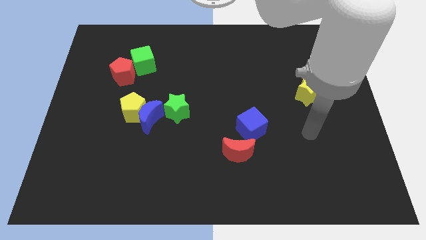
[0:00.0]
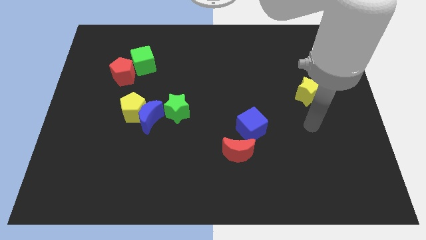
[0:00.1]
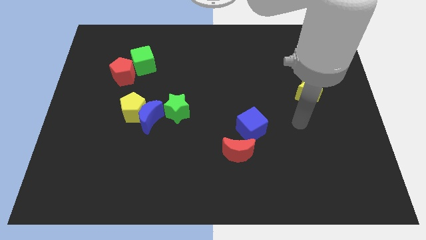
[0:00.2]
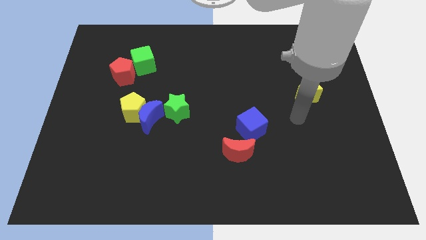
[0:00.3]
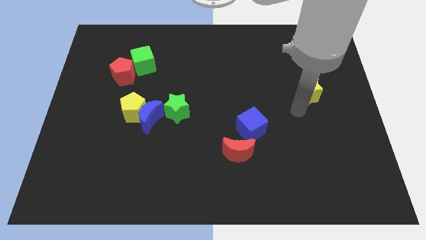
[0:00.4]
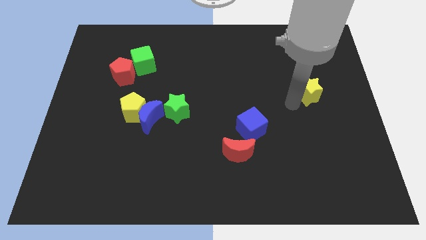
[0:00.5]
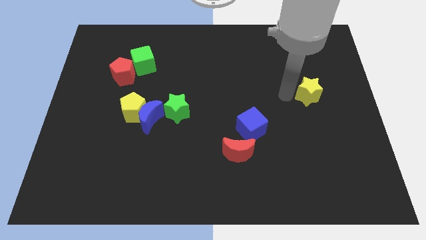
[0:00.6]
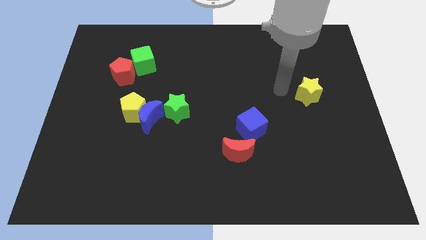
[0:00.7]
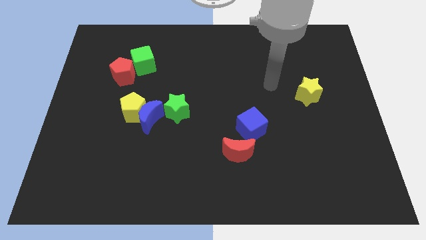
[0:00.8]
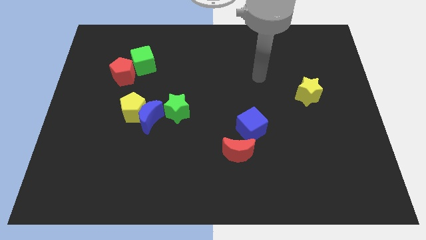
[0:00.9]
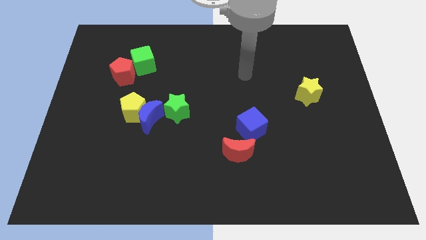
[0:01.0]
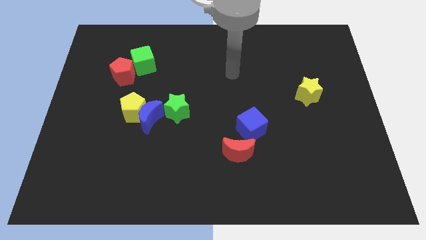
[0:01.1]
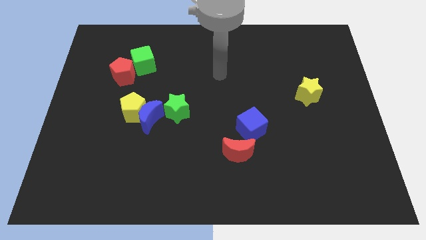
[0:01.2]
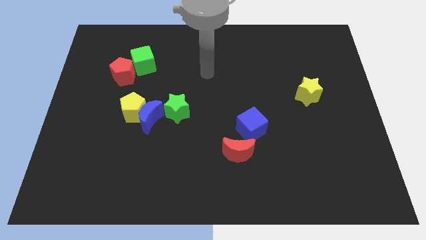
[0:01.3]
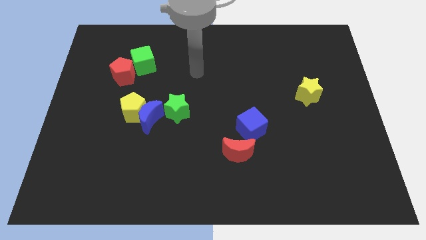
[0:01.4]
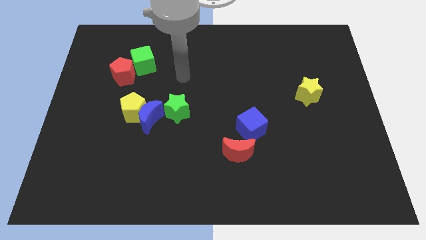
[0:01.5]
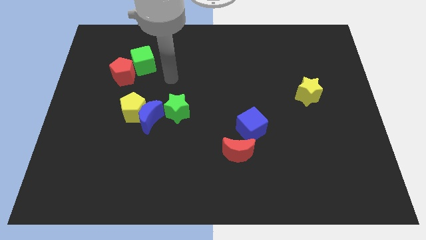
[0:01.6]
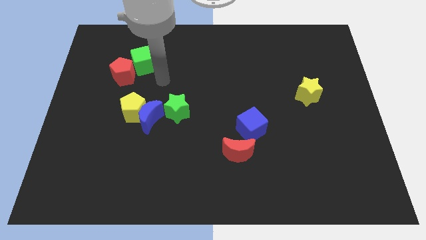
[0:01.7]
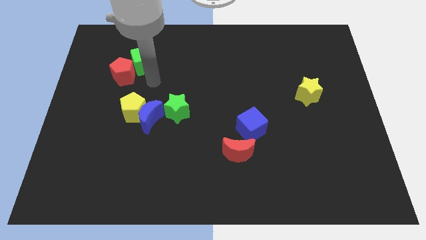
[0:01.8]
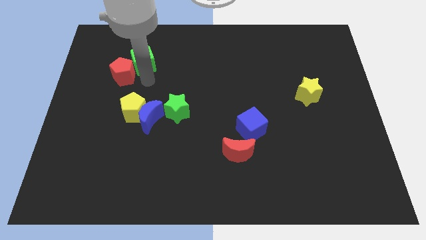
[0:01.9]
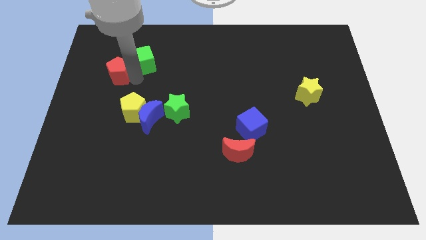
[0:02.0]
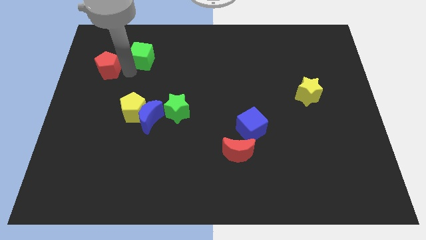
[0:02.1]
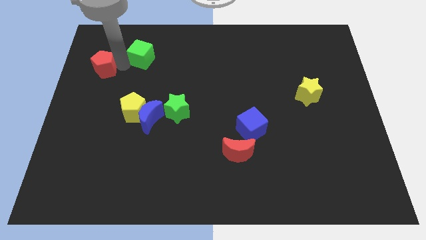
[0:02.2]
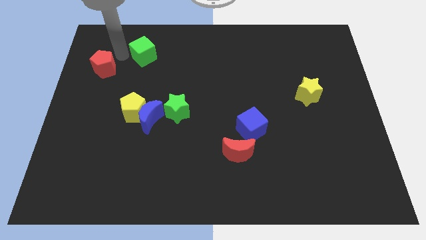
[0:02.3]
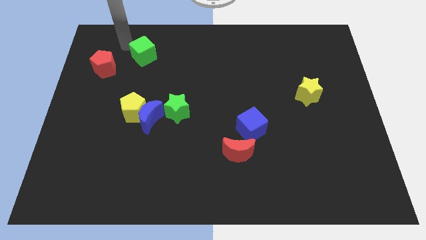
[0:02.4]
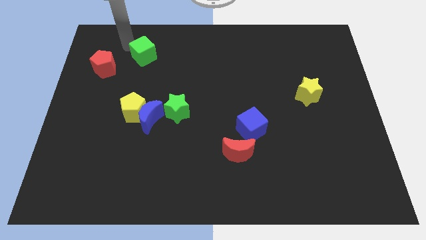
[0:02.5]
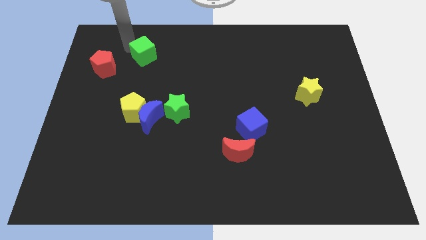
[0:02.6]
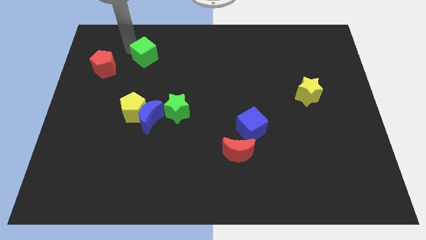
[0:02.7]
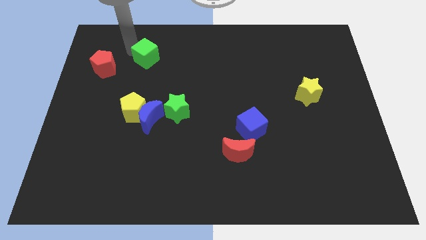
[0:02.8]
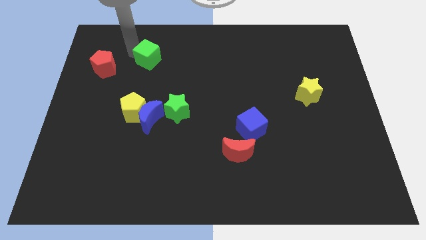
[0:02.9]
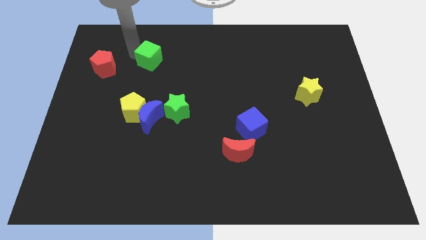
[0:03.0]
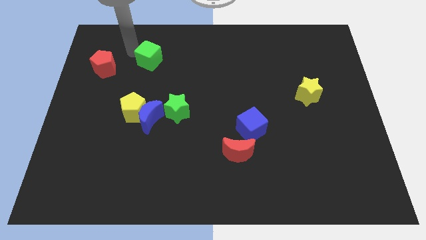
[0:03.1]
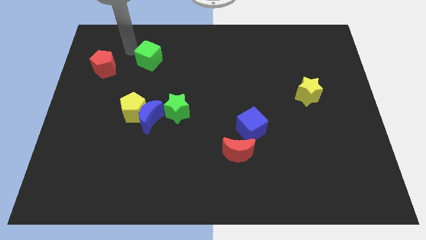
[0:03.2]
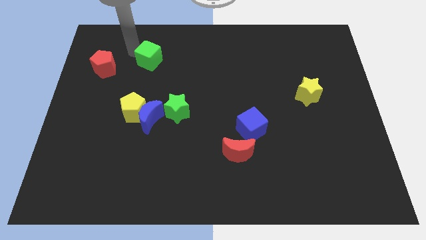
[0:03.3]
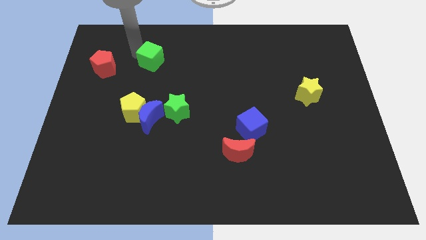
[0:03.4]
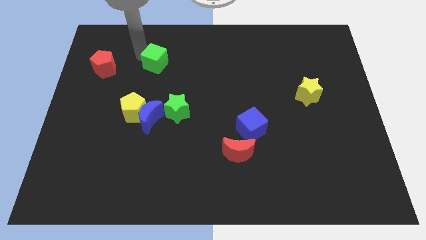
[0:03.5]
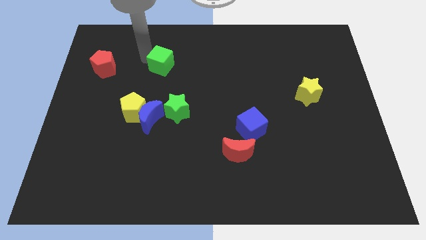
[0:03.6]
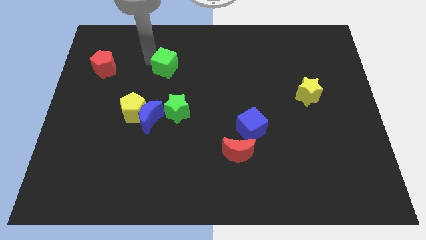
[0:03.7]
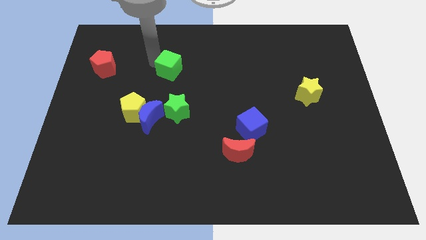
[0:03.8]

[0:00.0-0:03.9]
slightly slide the green cube right

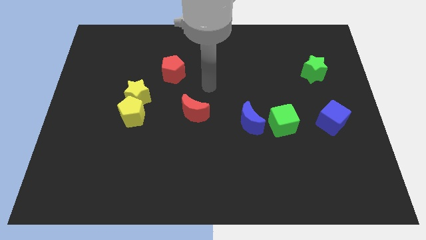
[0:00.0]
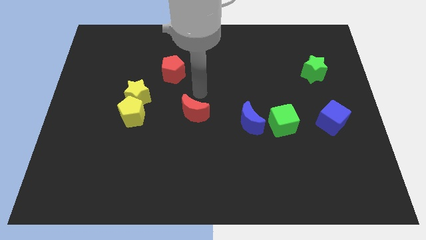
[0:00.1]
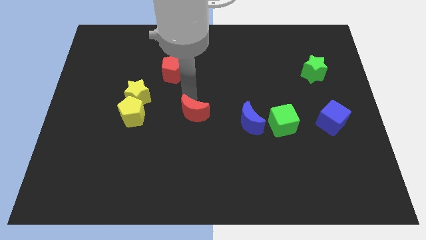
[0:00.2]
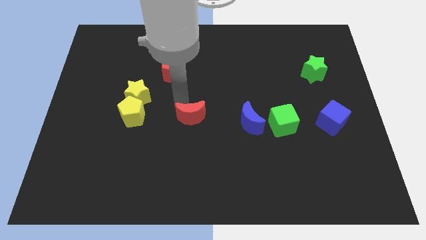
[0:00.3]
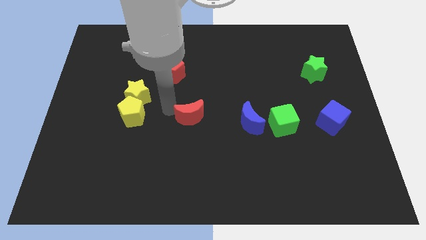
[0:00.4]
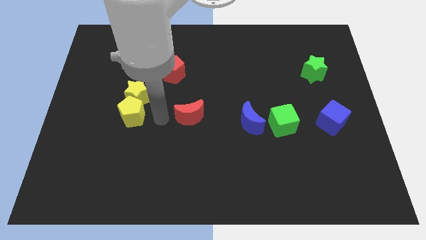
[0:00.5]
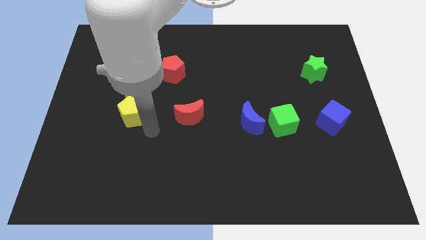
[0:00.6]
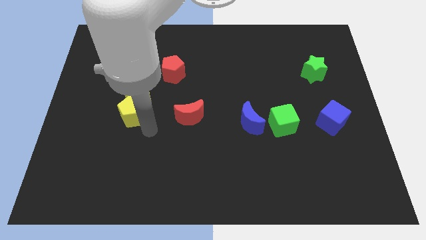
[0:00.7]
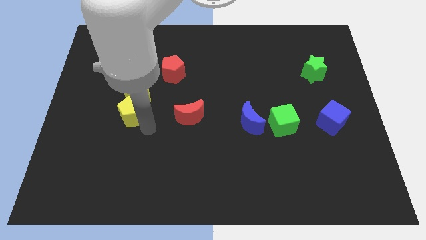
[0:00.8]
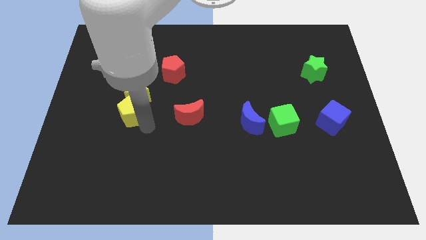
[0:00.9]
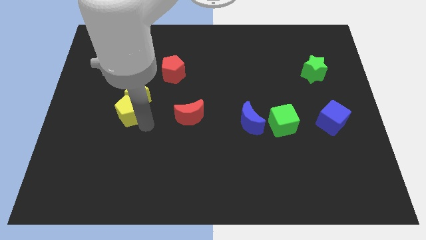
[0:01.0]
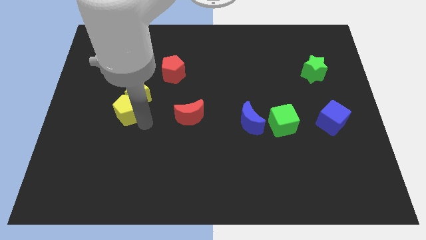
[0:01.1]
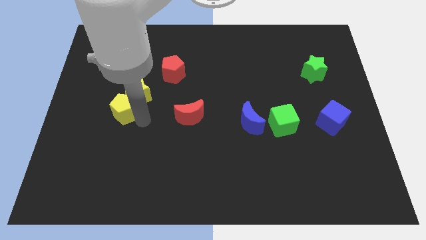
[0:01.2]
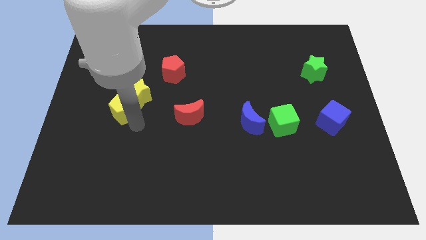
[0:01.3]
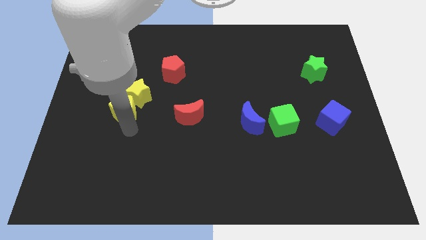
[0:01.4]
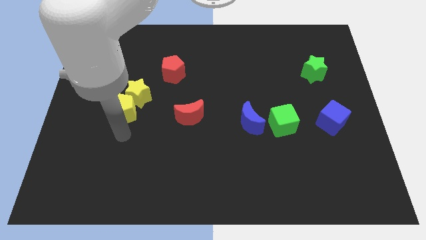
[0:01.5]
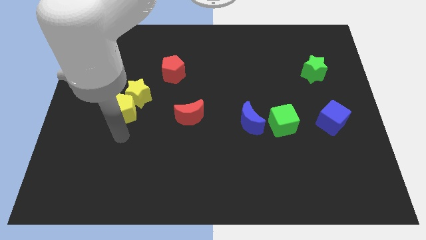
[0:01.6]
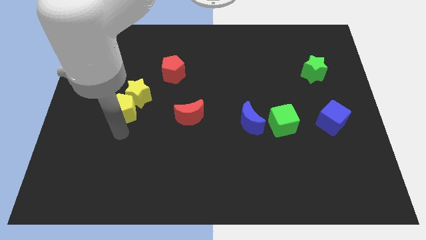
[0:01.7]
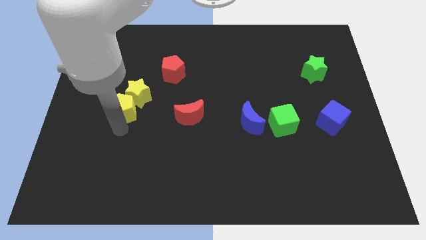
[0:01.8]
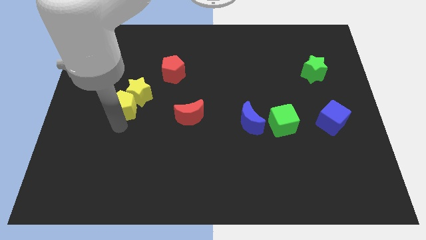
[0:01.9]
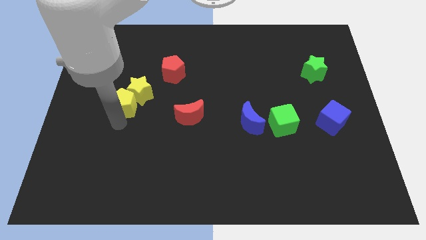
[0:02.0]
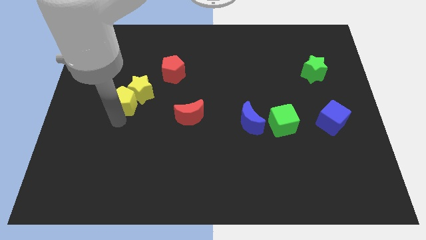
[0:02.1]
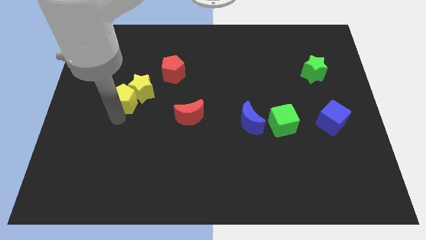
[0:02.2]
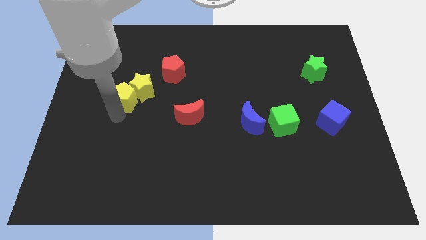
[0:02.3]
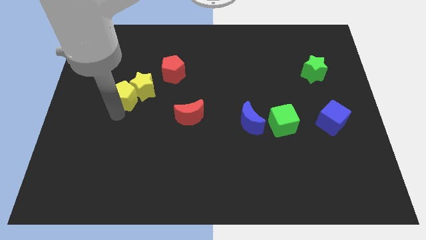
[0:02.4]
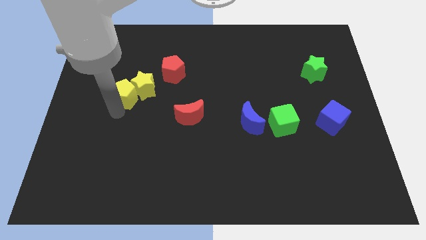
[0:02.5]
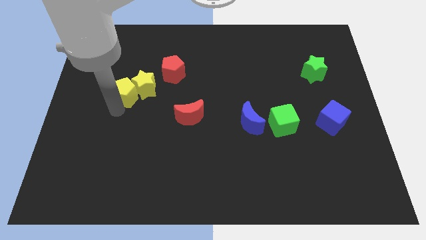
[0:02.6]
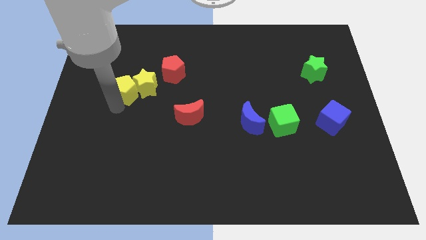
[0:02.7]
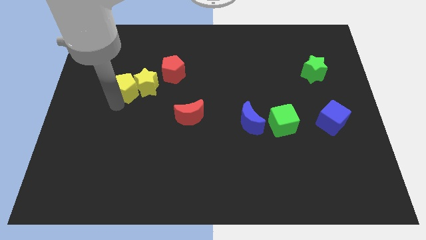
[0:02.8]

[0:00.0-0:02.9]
push the yellow pentagon up somewhat

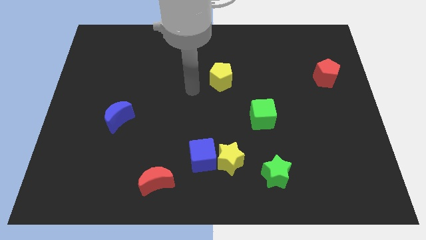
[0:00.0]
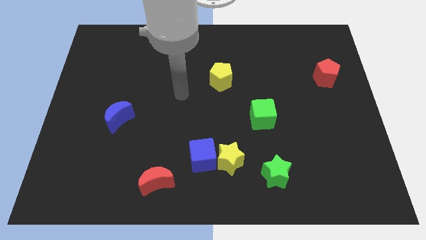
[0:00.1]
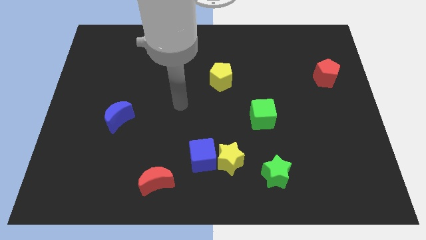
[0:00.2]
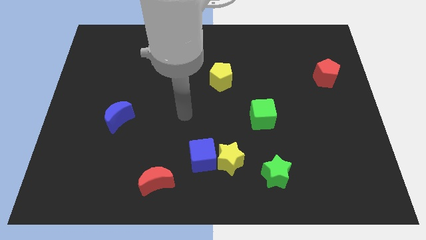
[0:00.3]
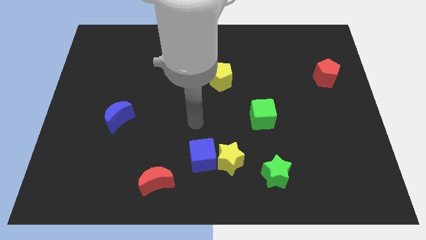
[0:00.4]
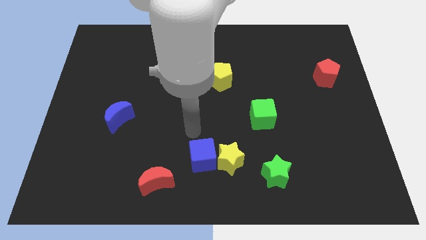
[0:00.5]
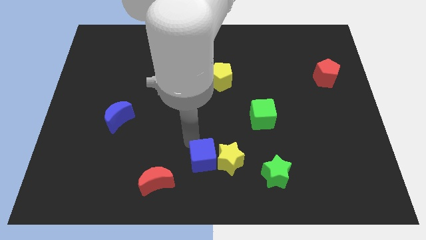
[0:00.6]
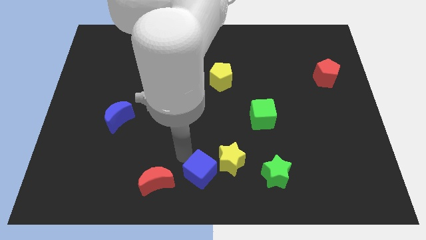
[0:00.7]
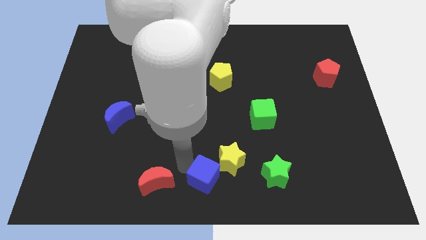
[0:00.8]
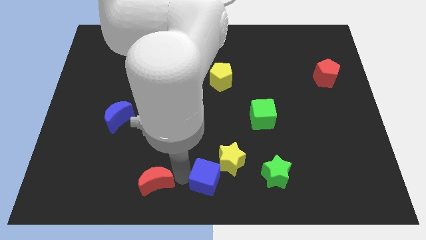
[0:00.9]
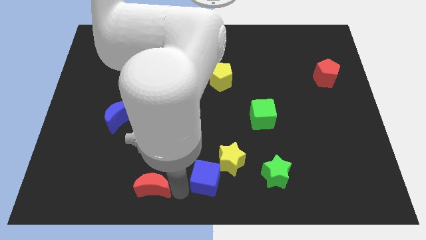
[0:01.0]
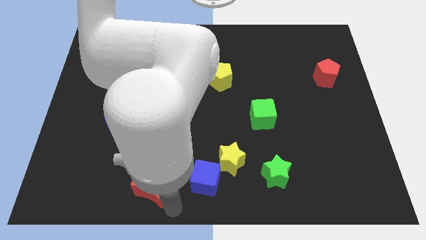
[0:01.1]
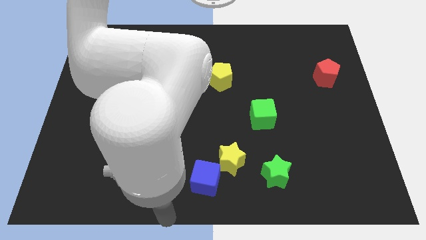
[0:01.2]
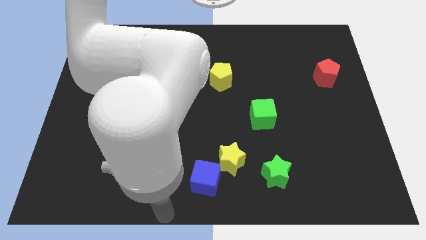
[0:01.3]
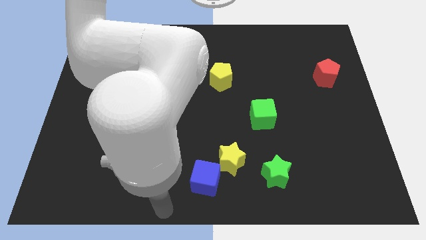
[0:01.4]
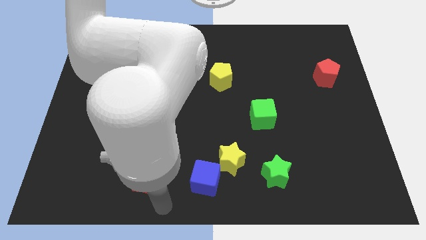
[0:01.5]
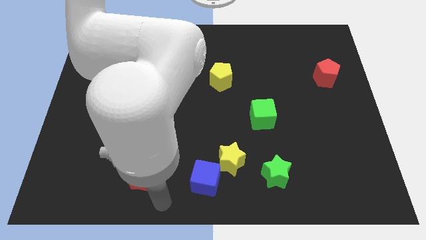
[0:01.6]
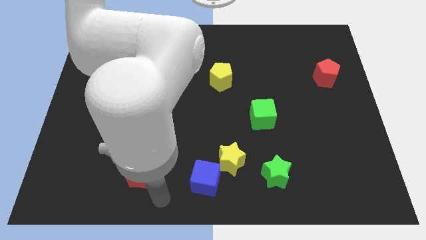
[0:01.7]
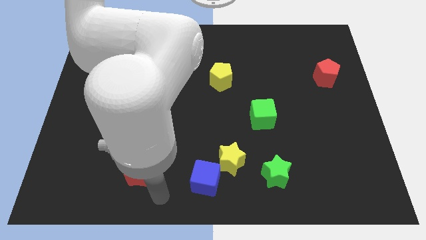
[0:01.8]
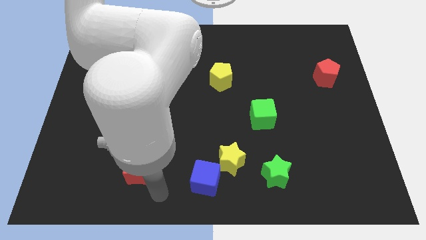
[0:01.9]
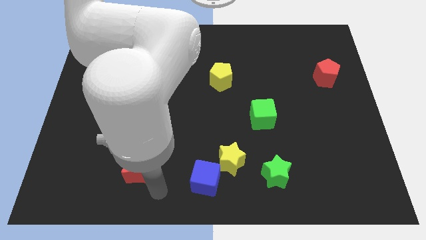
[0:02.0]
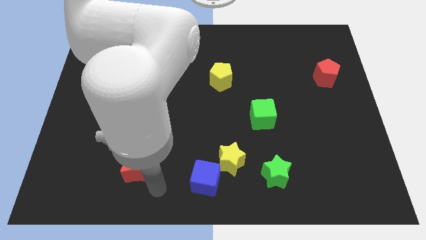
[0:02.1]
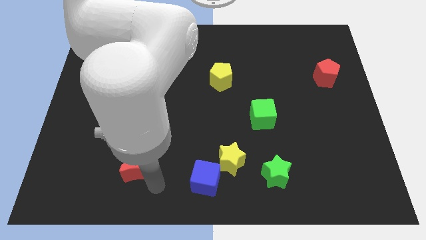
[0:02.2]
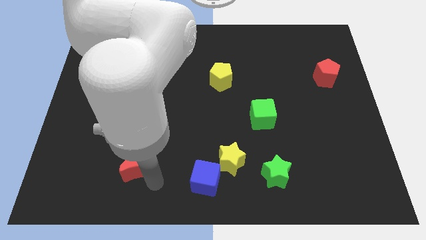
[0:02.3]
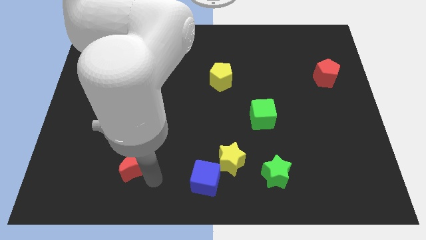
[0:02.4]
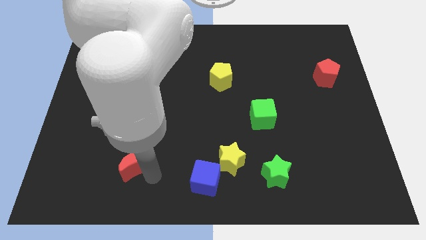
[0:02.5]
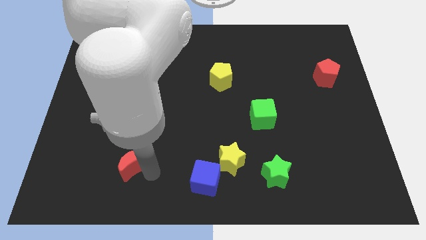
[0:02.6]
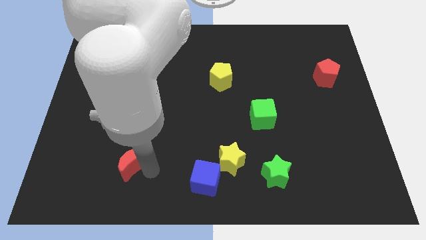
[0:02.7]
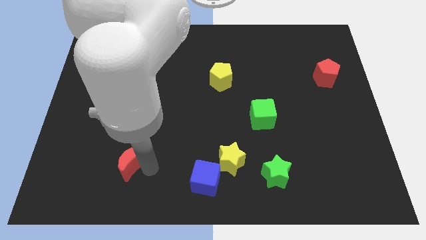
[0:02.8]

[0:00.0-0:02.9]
slightly push the red moon up and left
